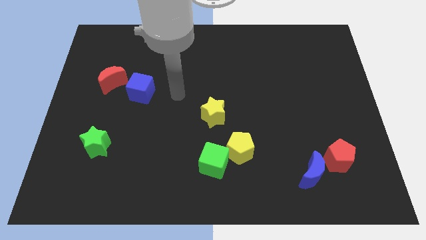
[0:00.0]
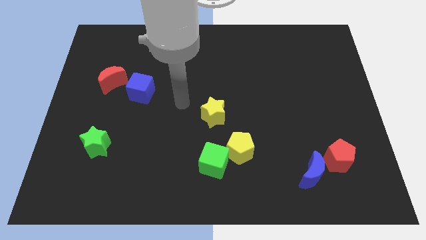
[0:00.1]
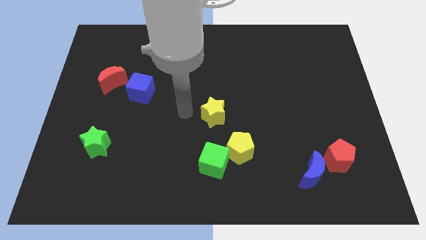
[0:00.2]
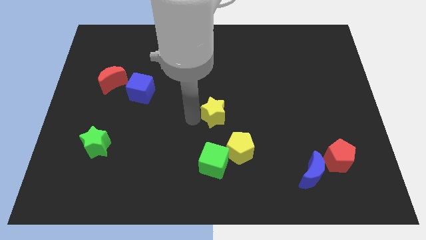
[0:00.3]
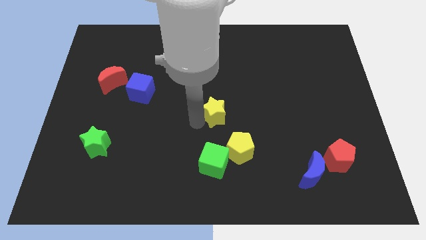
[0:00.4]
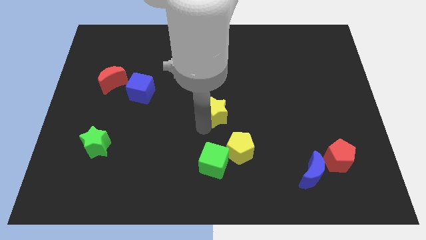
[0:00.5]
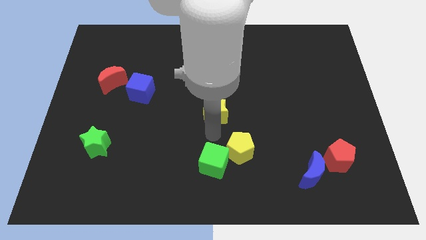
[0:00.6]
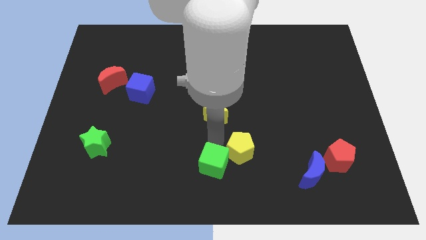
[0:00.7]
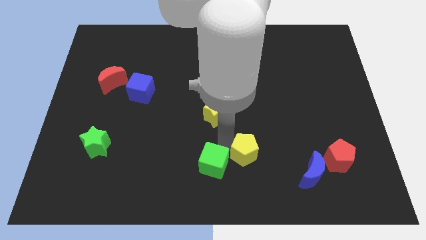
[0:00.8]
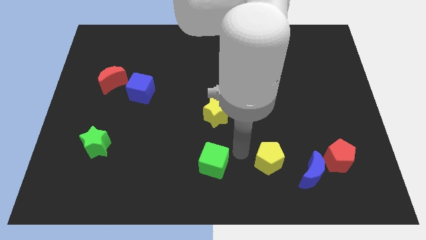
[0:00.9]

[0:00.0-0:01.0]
move the green cube away from the yellow pentagon

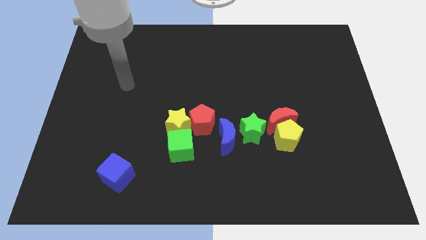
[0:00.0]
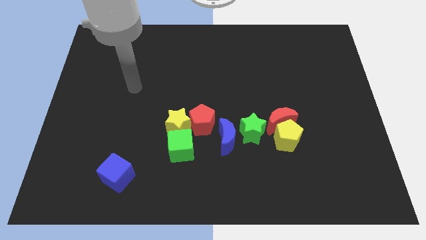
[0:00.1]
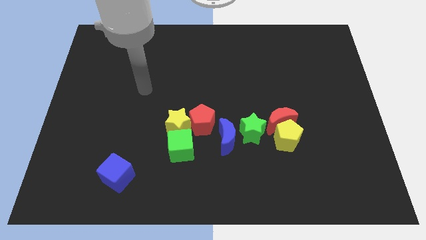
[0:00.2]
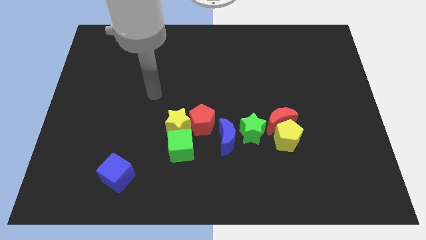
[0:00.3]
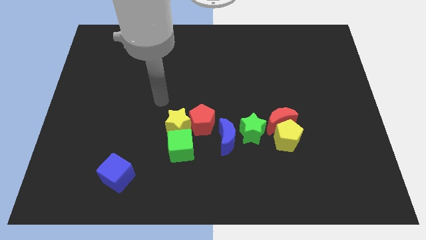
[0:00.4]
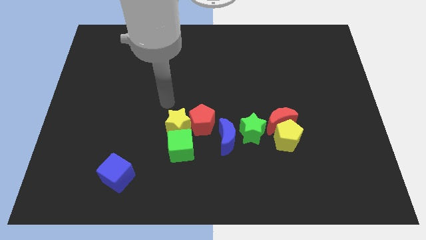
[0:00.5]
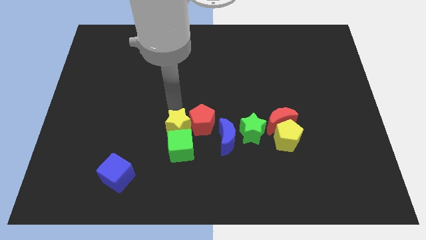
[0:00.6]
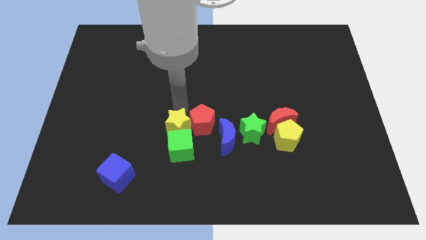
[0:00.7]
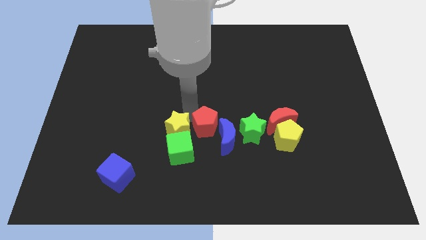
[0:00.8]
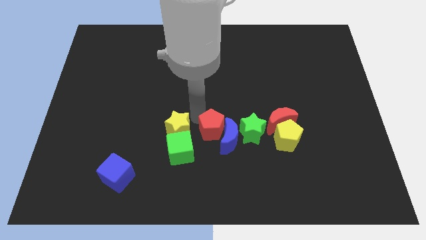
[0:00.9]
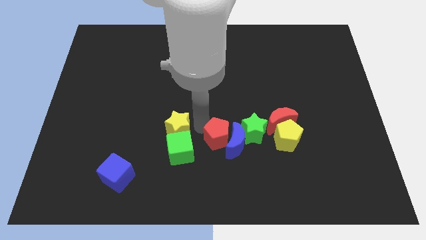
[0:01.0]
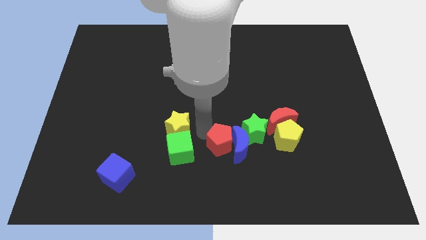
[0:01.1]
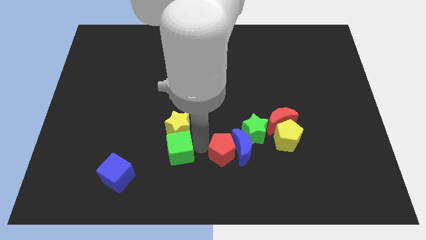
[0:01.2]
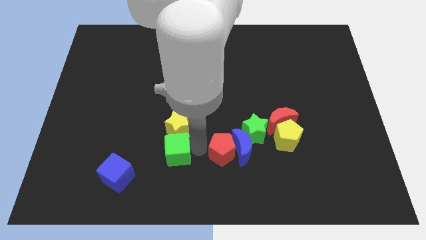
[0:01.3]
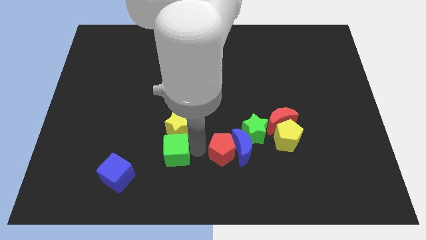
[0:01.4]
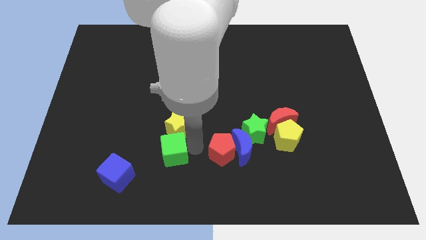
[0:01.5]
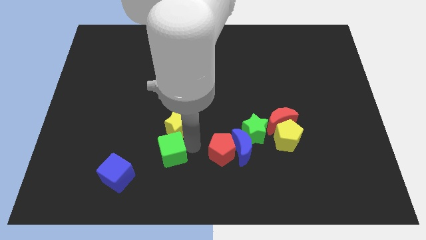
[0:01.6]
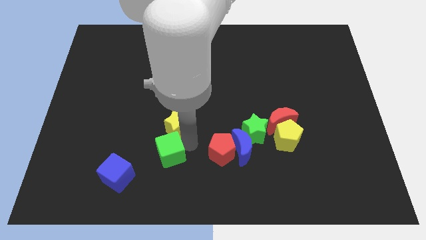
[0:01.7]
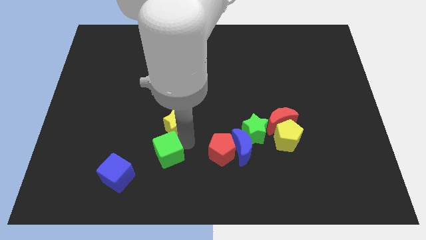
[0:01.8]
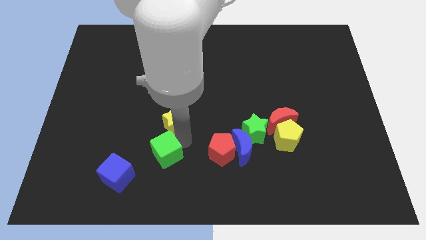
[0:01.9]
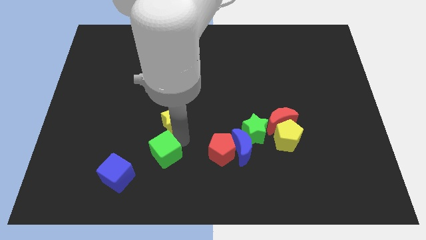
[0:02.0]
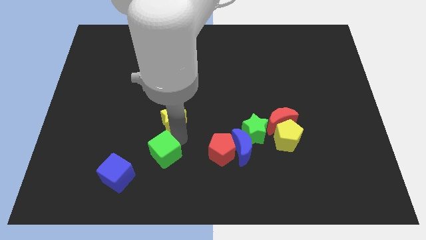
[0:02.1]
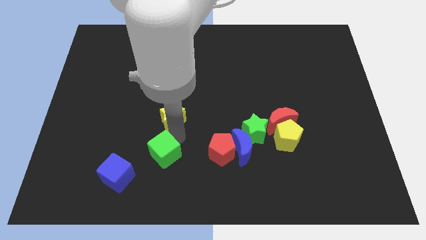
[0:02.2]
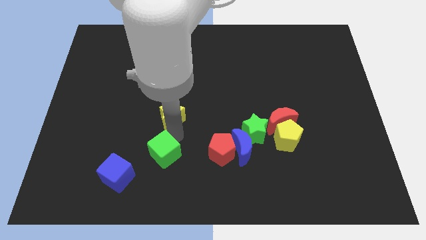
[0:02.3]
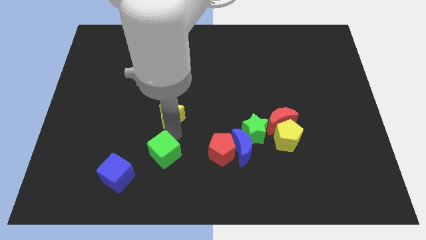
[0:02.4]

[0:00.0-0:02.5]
pull the yellow star apart from the red pentagon and green cube

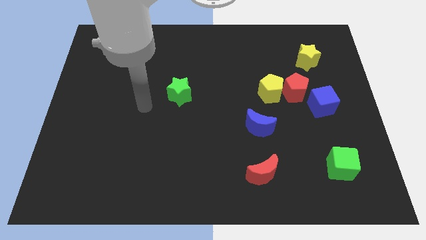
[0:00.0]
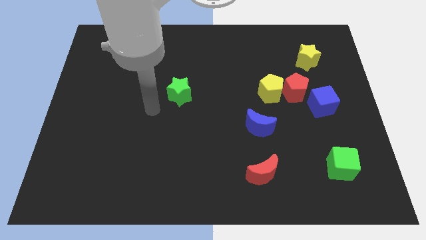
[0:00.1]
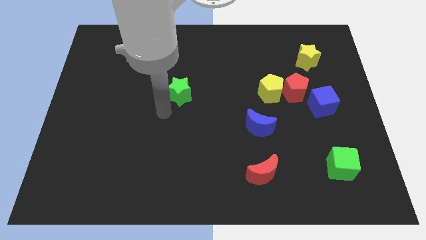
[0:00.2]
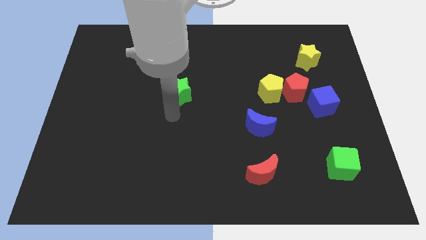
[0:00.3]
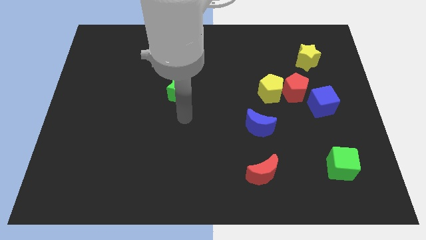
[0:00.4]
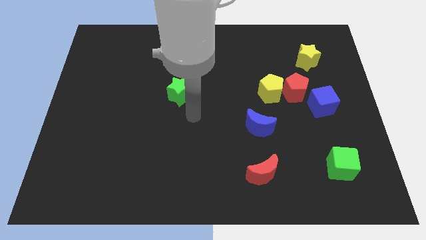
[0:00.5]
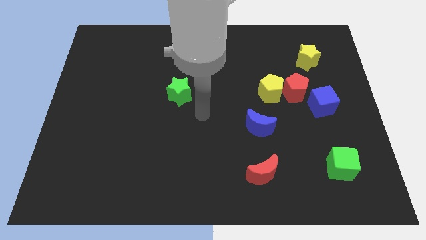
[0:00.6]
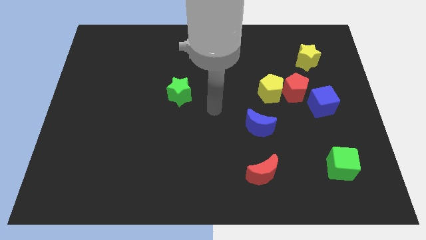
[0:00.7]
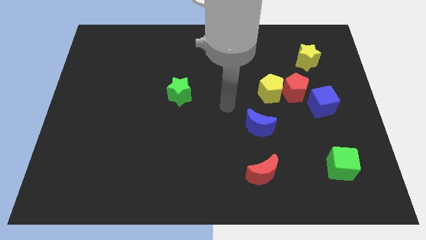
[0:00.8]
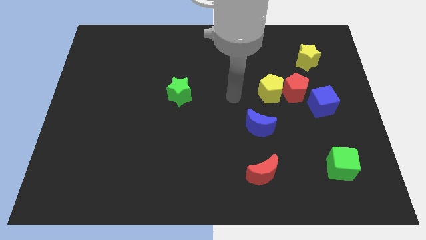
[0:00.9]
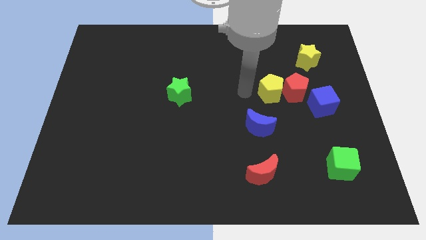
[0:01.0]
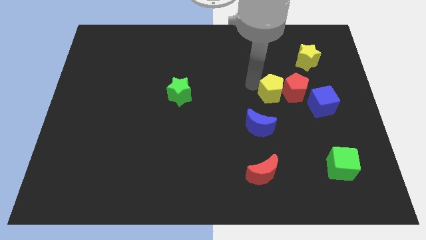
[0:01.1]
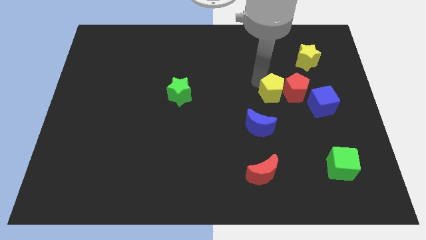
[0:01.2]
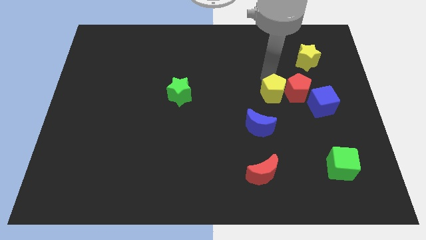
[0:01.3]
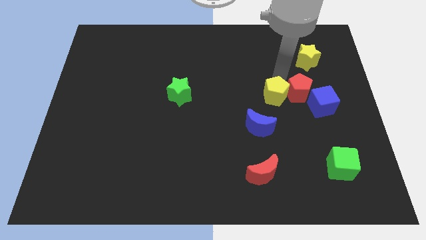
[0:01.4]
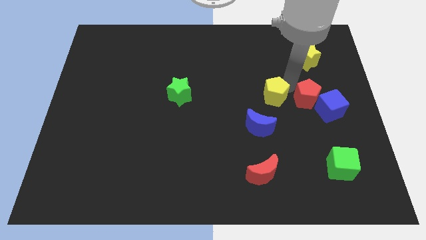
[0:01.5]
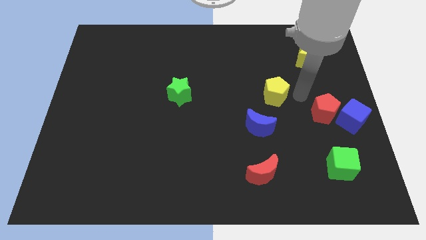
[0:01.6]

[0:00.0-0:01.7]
move the yellow pentagon away from the red pentagon

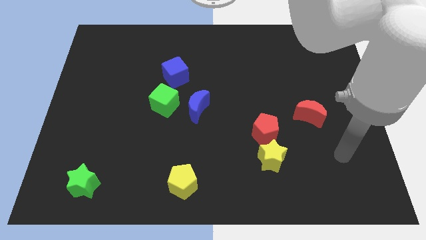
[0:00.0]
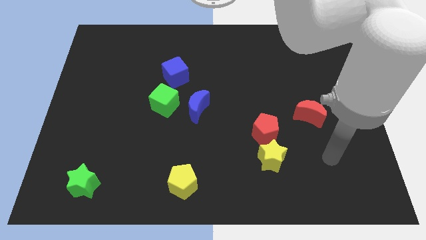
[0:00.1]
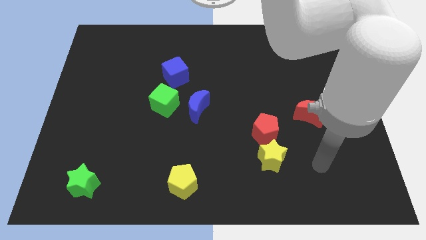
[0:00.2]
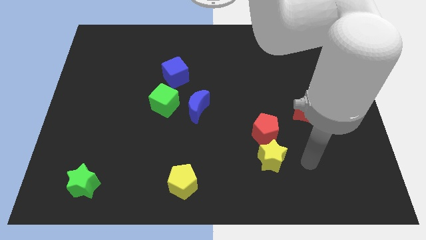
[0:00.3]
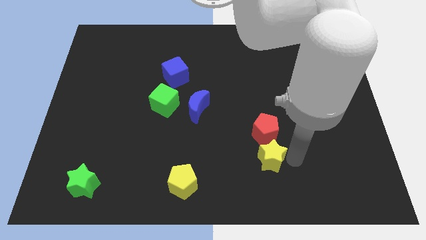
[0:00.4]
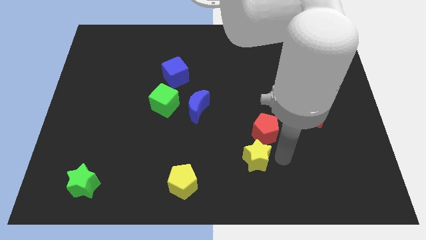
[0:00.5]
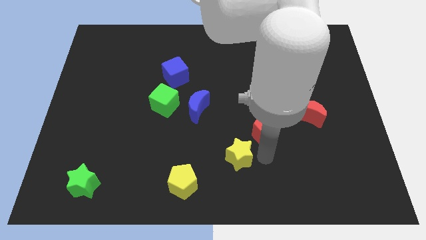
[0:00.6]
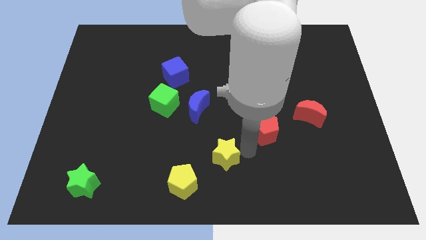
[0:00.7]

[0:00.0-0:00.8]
separate the red pentagon from the yellow star

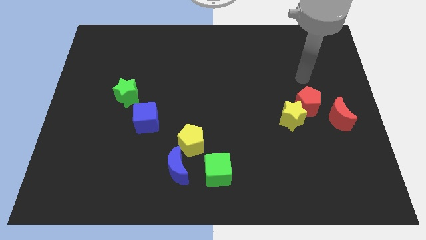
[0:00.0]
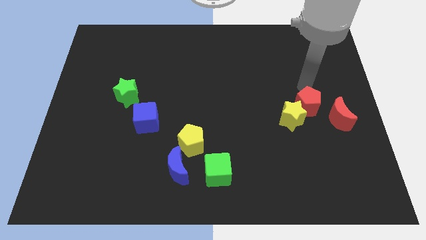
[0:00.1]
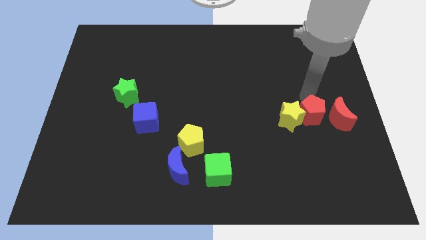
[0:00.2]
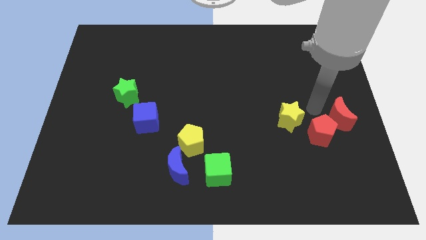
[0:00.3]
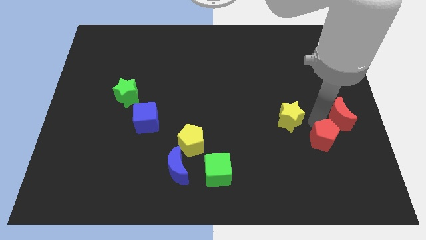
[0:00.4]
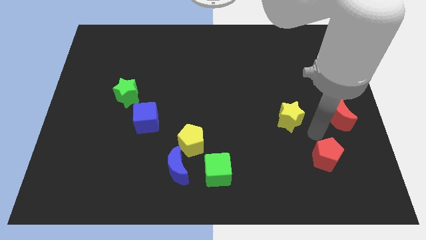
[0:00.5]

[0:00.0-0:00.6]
move the yellow star away from the red pentagon

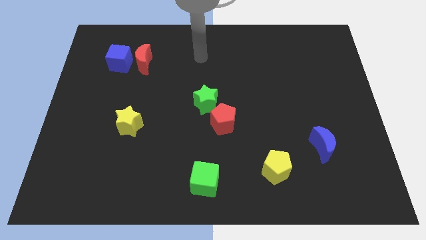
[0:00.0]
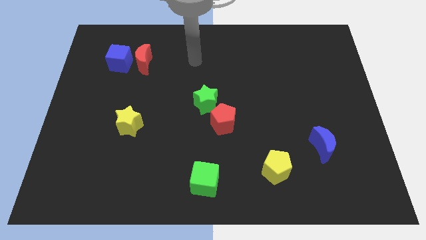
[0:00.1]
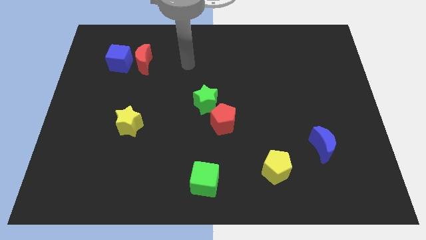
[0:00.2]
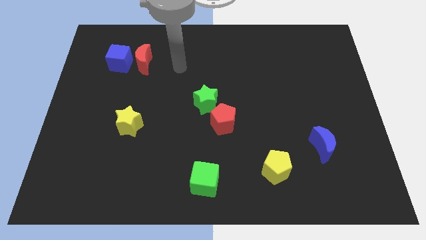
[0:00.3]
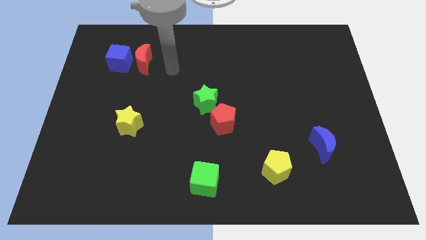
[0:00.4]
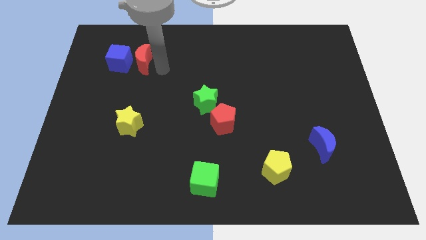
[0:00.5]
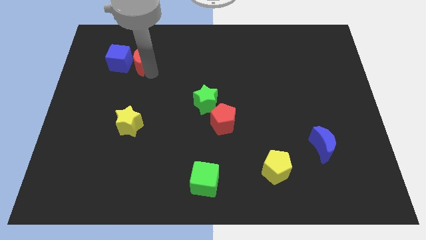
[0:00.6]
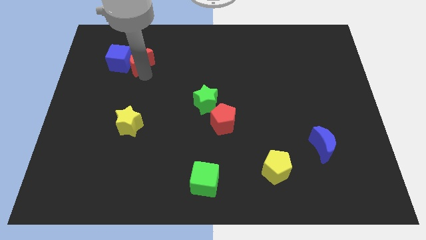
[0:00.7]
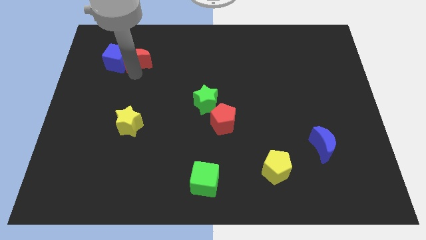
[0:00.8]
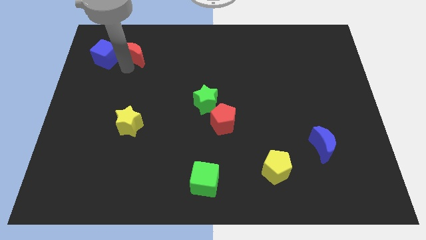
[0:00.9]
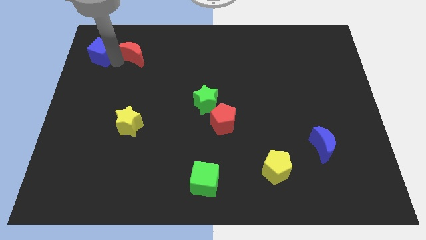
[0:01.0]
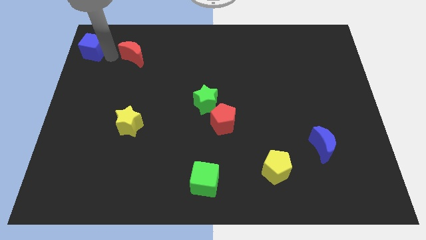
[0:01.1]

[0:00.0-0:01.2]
separate the red moon from the blue cube

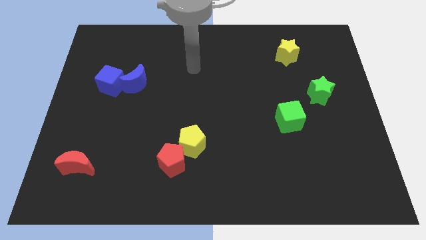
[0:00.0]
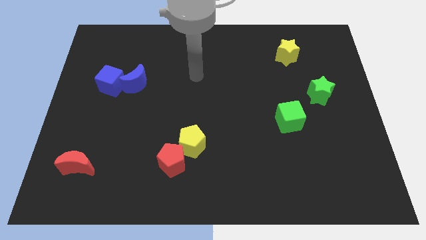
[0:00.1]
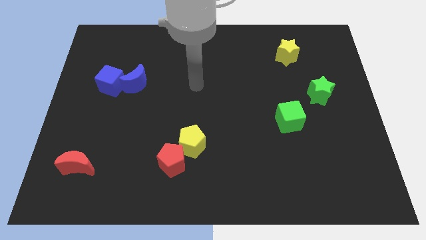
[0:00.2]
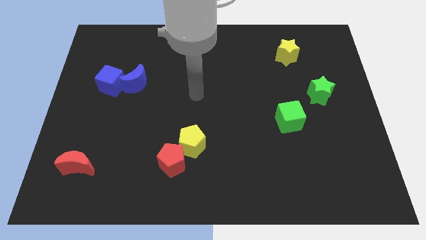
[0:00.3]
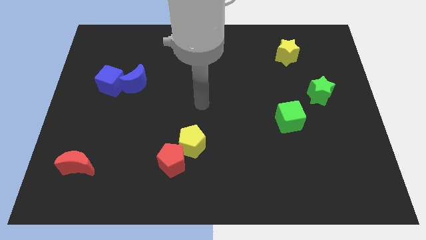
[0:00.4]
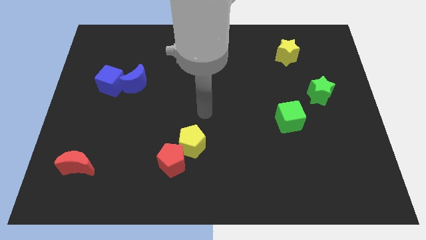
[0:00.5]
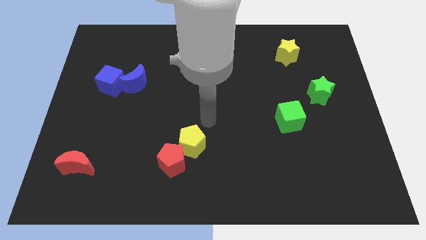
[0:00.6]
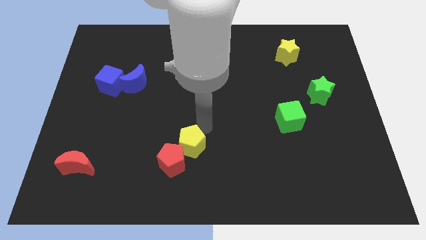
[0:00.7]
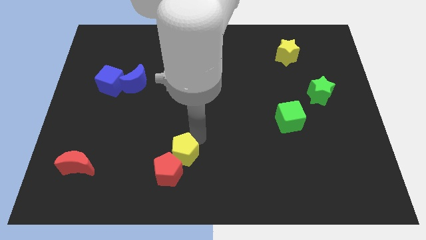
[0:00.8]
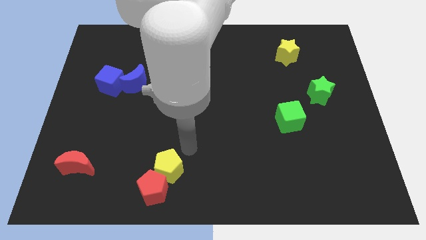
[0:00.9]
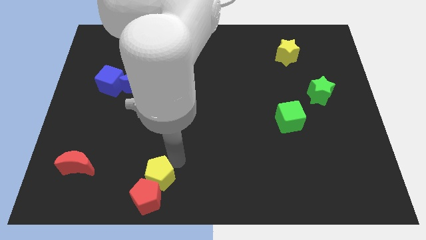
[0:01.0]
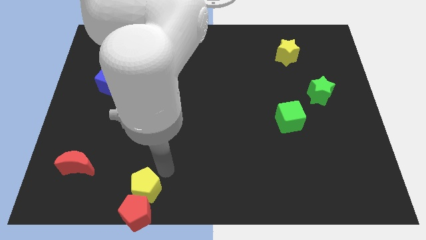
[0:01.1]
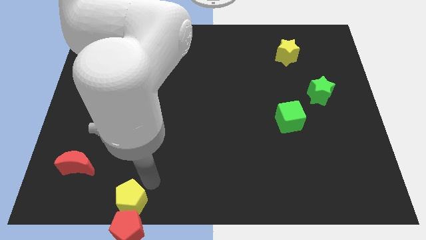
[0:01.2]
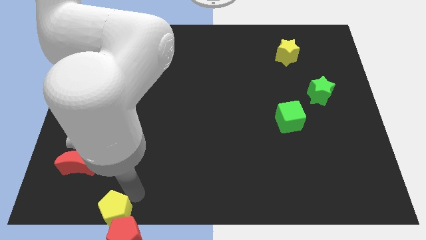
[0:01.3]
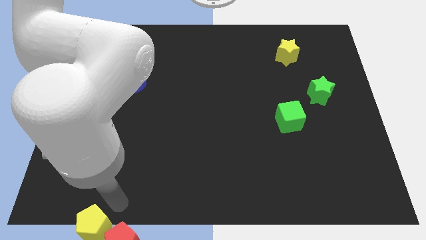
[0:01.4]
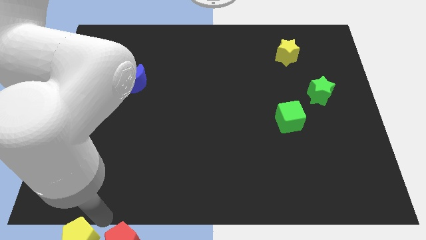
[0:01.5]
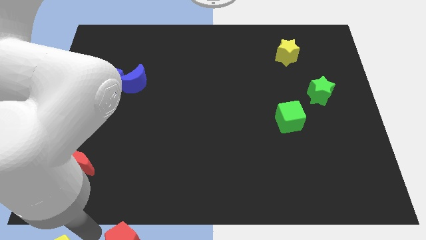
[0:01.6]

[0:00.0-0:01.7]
pull the red pentagon apart from the yellow pentagon

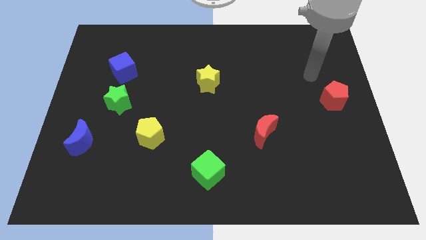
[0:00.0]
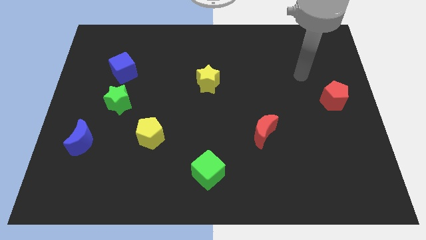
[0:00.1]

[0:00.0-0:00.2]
move the blue cube away from the green star
